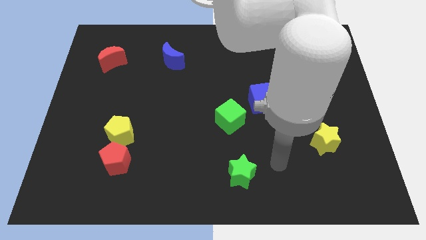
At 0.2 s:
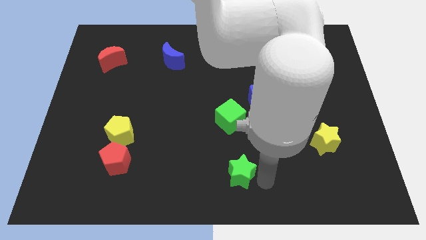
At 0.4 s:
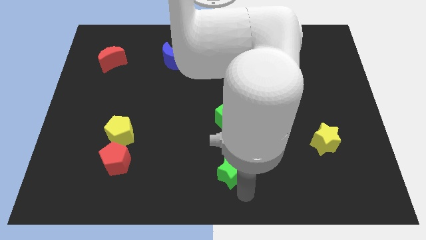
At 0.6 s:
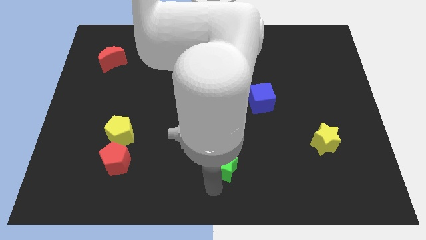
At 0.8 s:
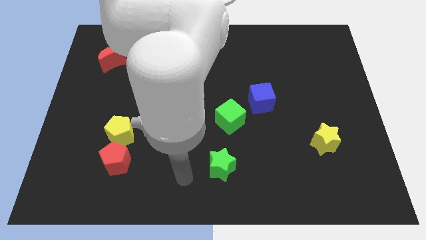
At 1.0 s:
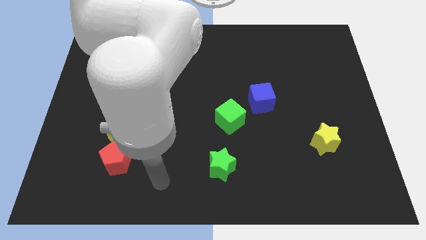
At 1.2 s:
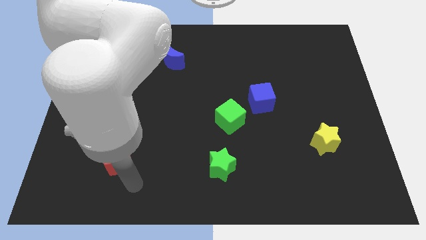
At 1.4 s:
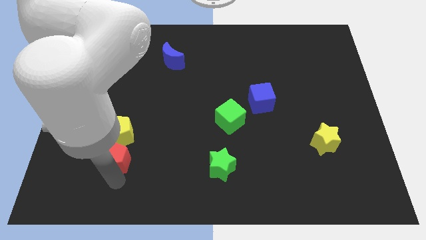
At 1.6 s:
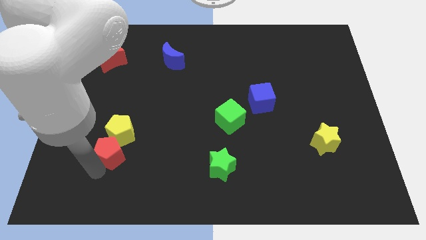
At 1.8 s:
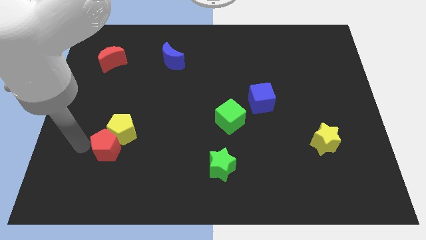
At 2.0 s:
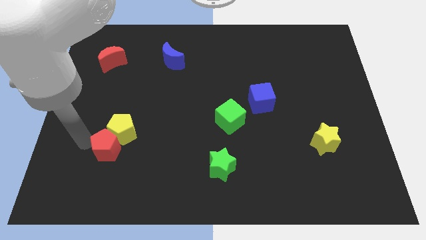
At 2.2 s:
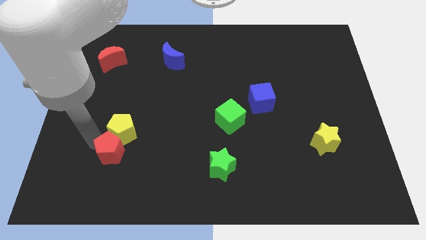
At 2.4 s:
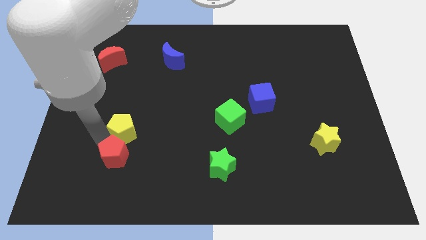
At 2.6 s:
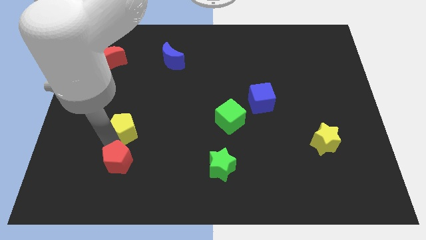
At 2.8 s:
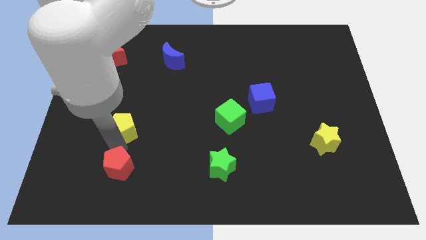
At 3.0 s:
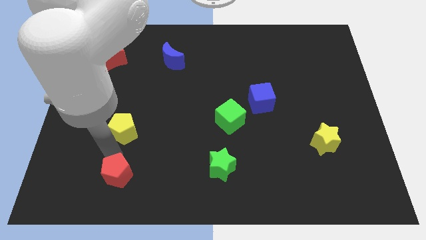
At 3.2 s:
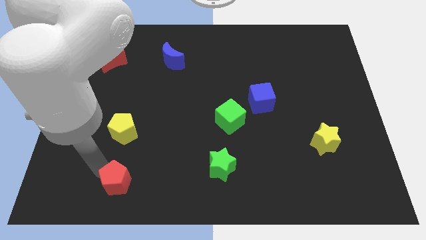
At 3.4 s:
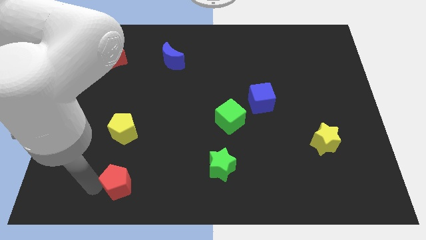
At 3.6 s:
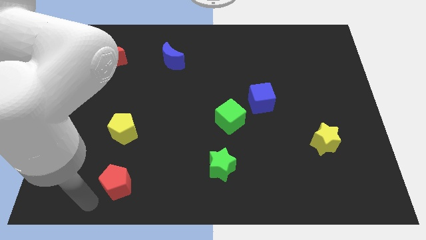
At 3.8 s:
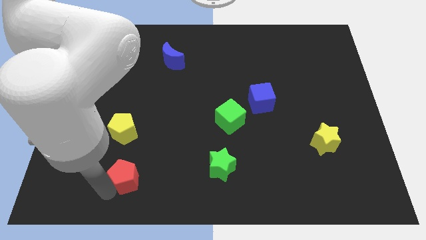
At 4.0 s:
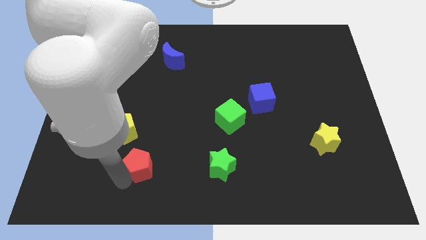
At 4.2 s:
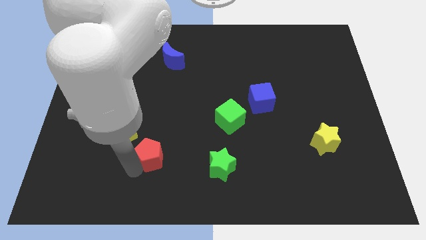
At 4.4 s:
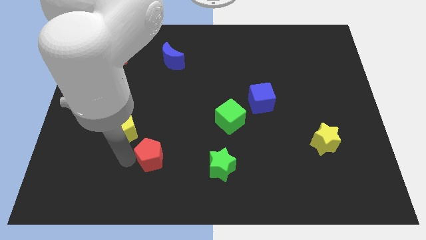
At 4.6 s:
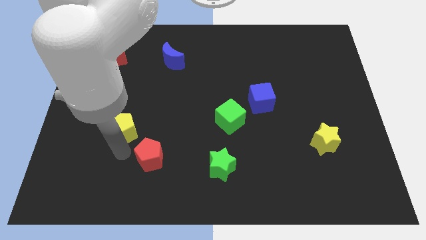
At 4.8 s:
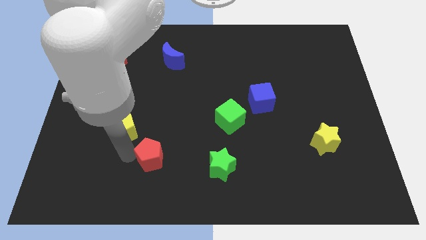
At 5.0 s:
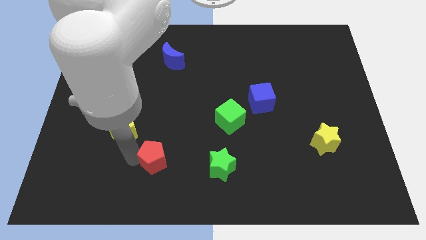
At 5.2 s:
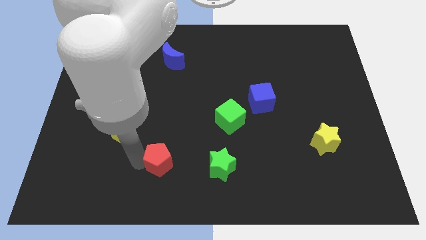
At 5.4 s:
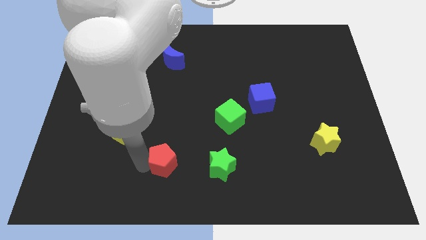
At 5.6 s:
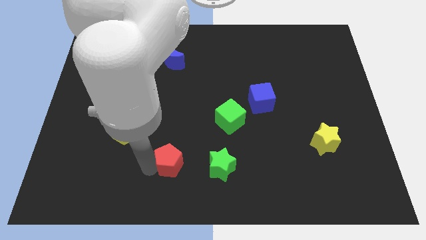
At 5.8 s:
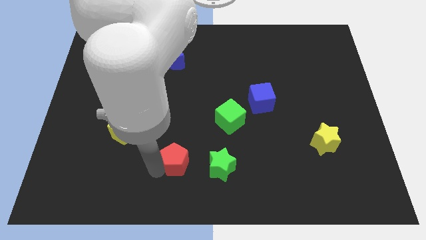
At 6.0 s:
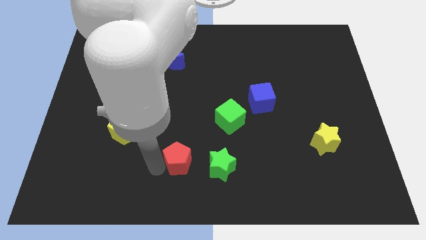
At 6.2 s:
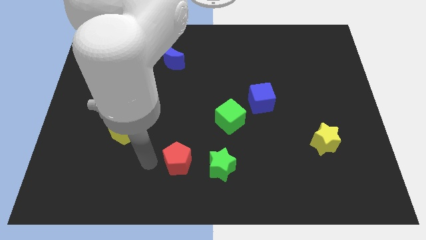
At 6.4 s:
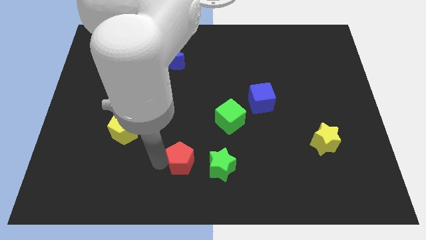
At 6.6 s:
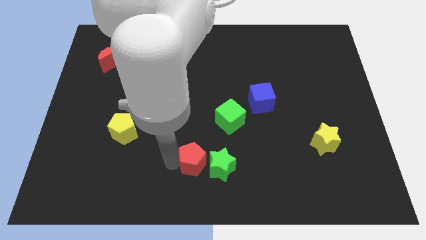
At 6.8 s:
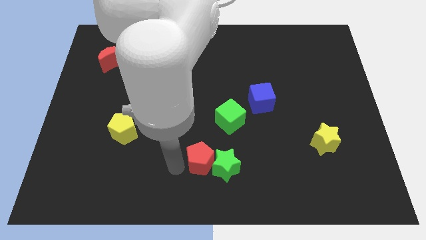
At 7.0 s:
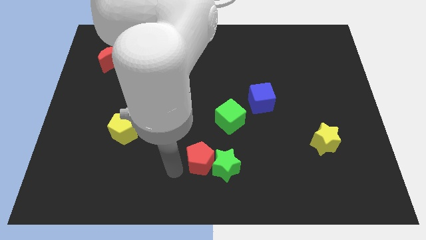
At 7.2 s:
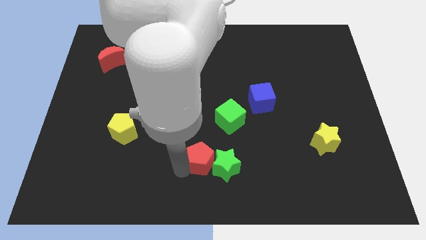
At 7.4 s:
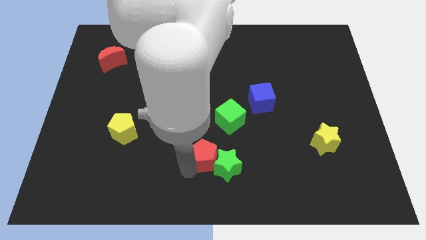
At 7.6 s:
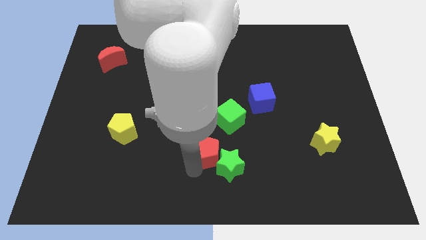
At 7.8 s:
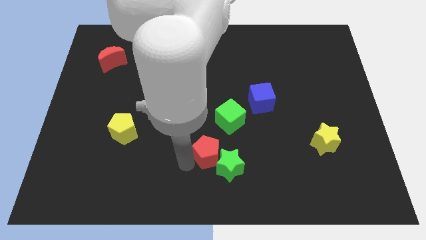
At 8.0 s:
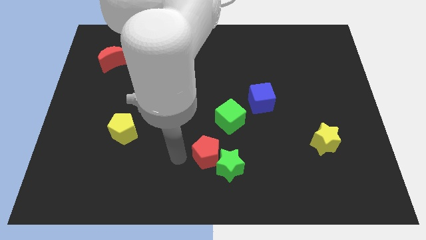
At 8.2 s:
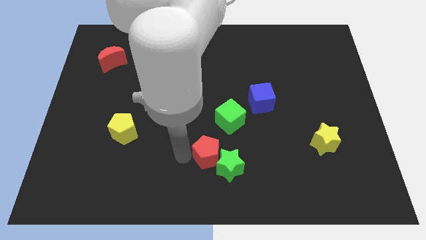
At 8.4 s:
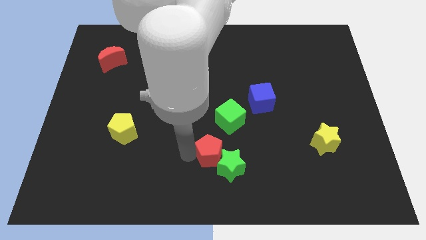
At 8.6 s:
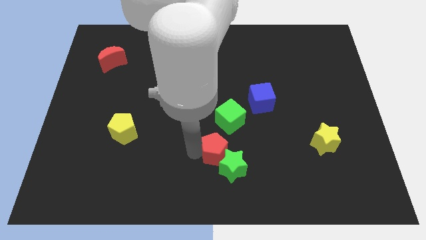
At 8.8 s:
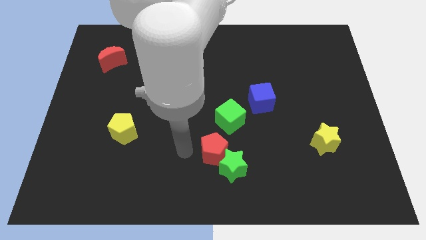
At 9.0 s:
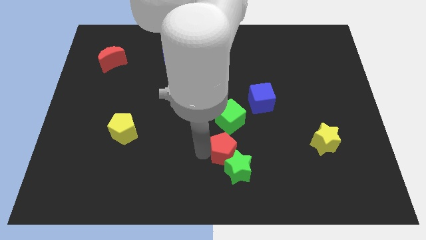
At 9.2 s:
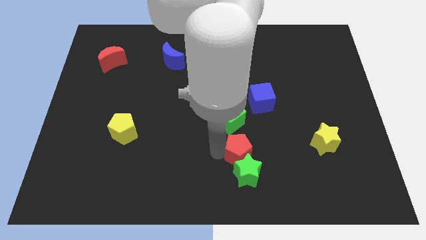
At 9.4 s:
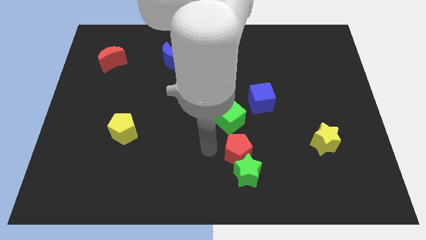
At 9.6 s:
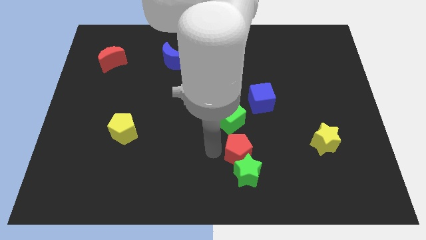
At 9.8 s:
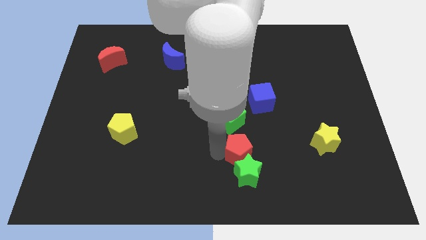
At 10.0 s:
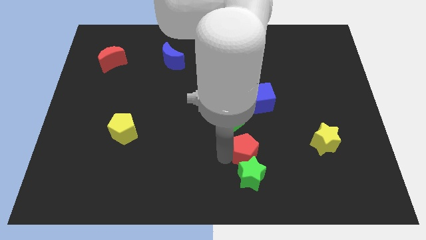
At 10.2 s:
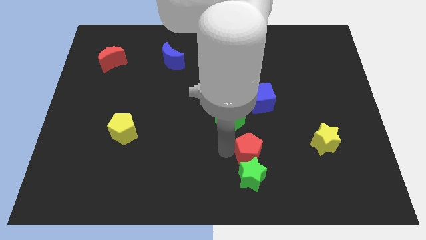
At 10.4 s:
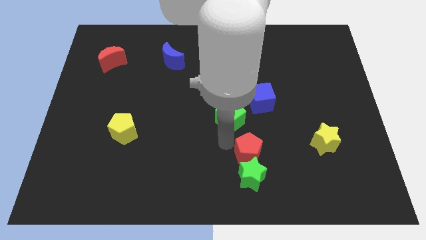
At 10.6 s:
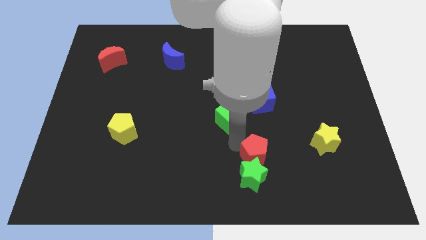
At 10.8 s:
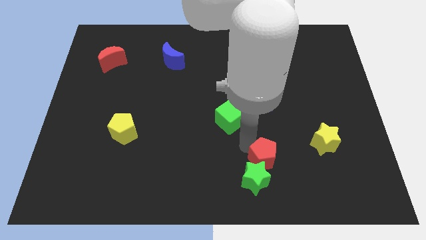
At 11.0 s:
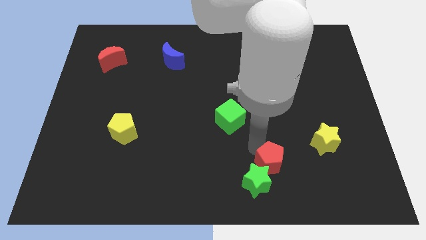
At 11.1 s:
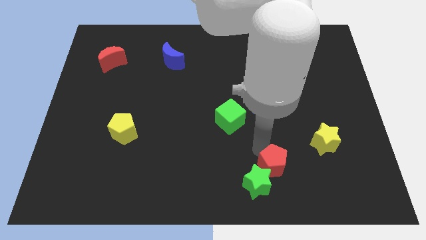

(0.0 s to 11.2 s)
move the red pentagon right of the green star

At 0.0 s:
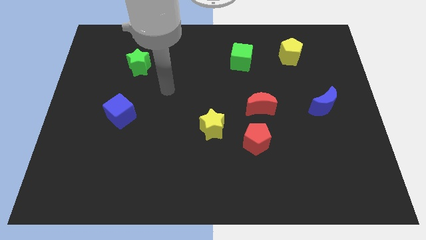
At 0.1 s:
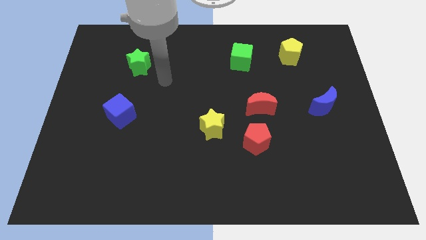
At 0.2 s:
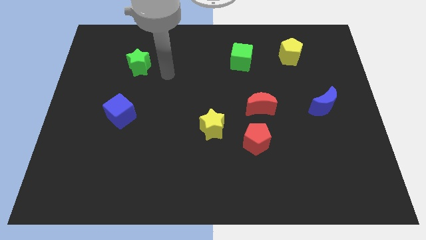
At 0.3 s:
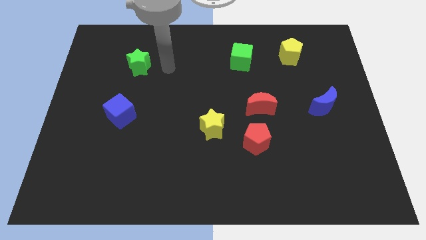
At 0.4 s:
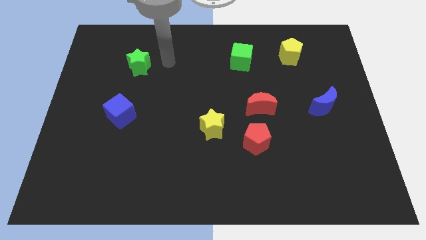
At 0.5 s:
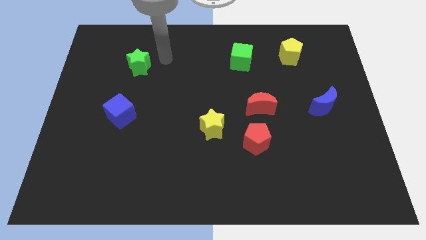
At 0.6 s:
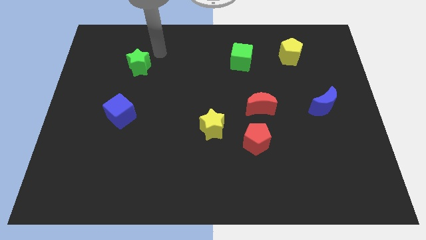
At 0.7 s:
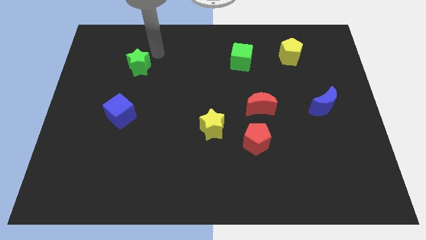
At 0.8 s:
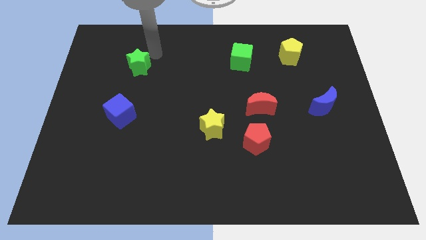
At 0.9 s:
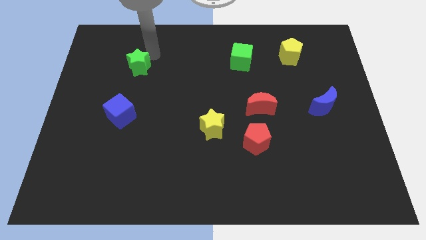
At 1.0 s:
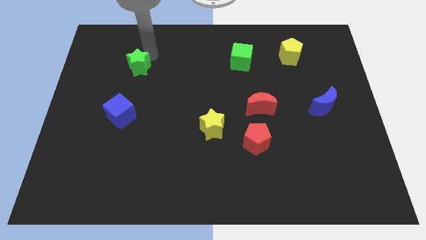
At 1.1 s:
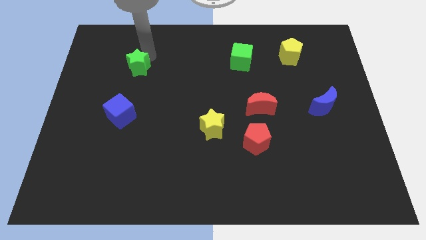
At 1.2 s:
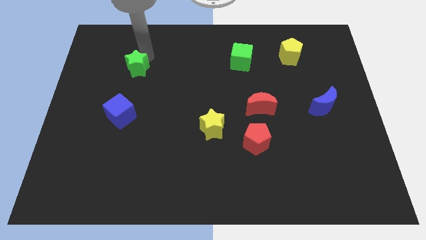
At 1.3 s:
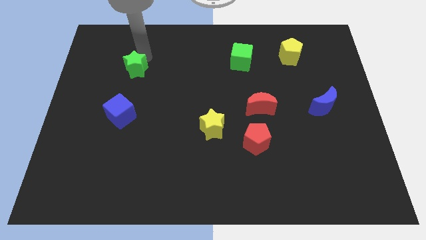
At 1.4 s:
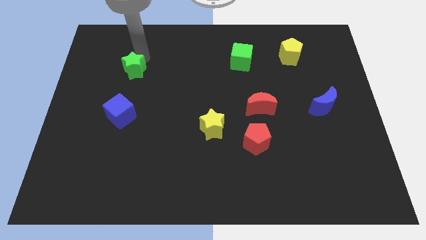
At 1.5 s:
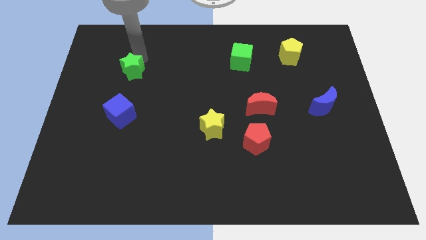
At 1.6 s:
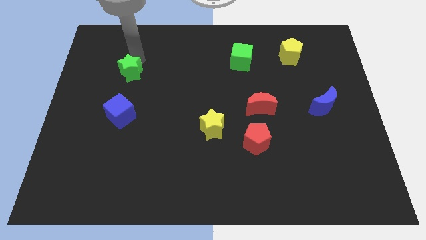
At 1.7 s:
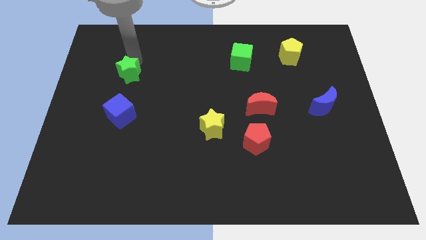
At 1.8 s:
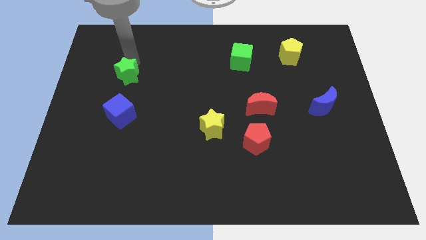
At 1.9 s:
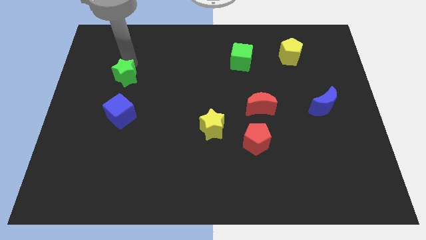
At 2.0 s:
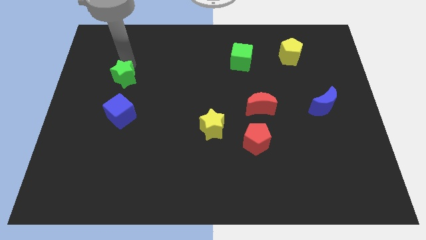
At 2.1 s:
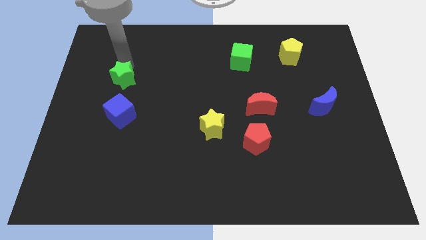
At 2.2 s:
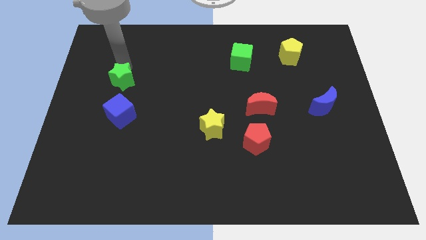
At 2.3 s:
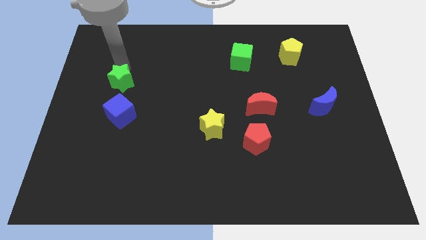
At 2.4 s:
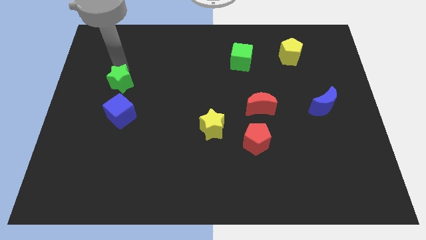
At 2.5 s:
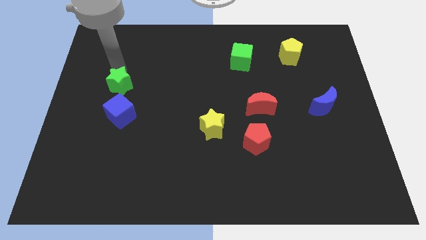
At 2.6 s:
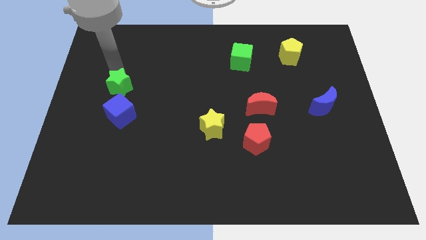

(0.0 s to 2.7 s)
push the green star to the top left side of the blue cube
